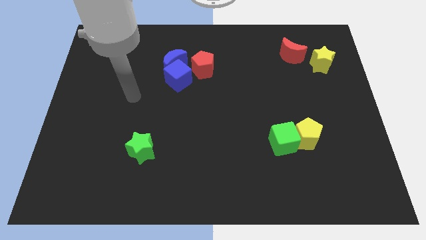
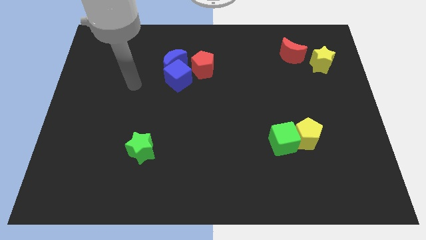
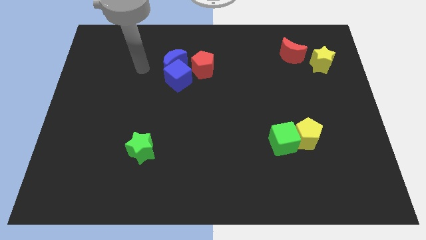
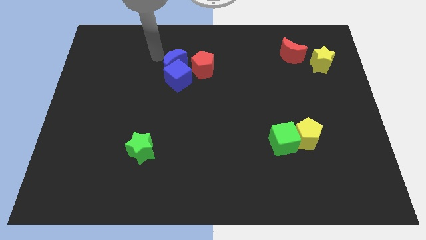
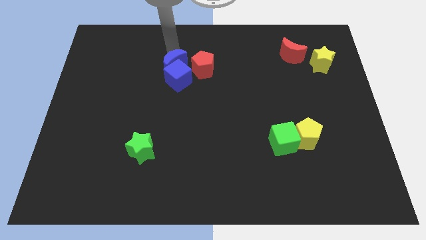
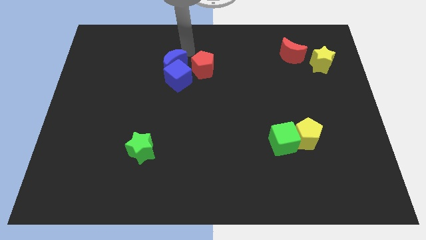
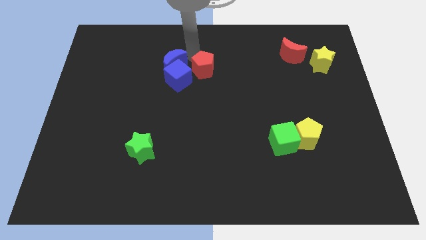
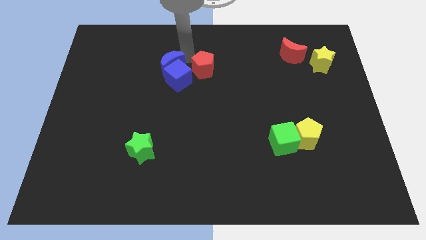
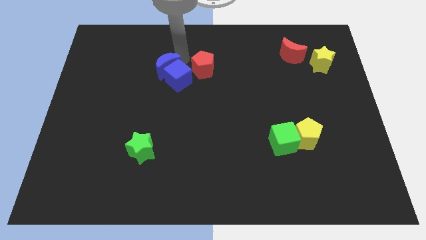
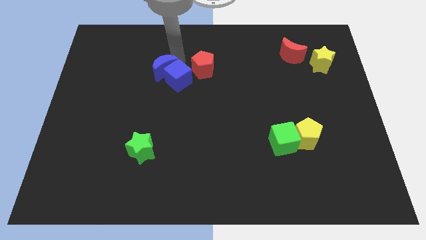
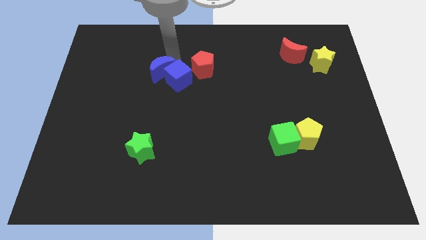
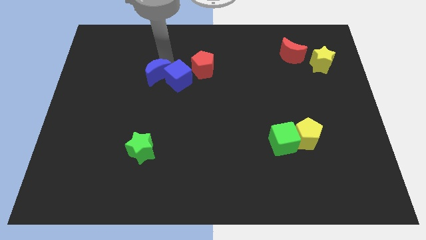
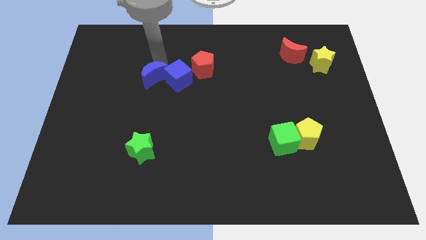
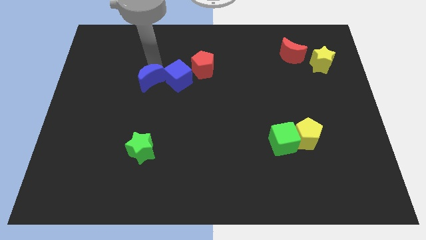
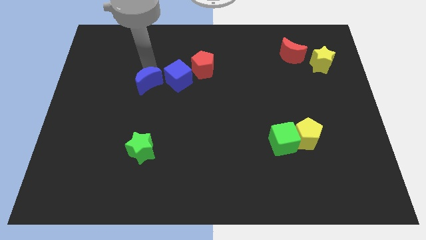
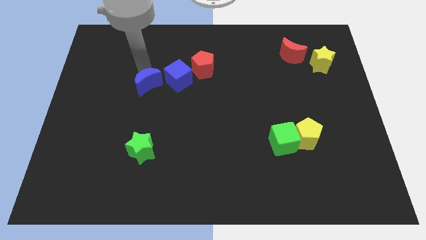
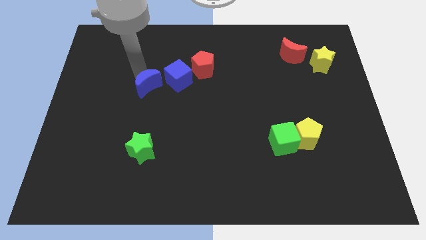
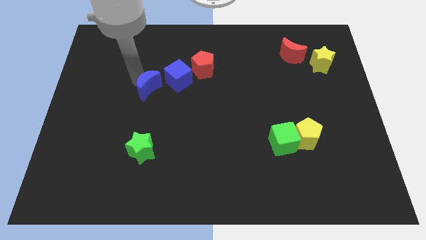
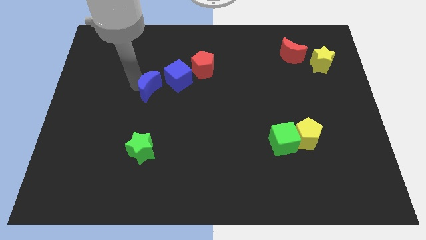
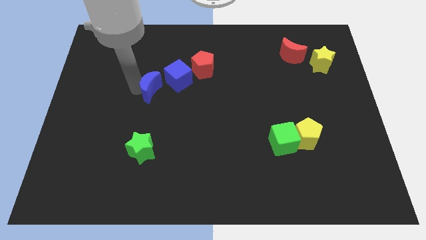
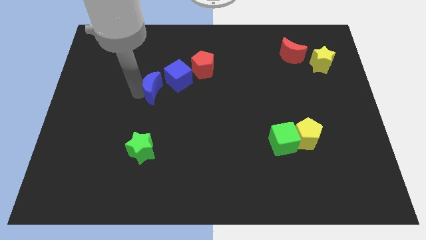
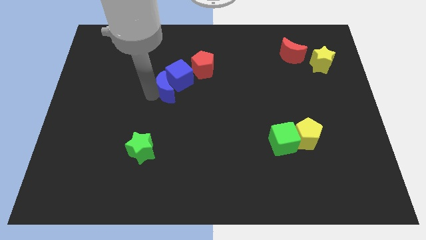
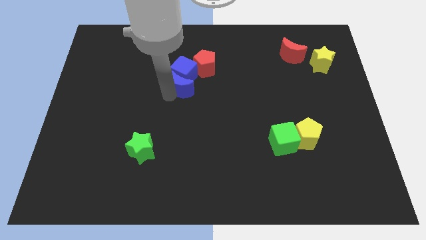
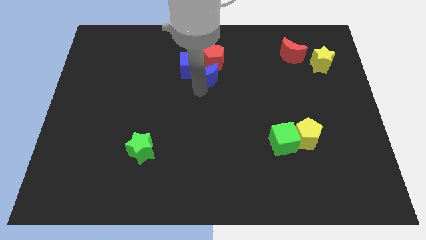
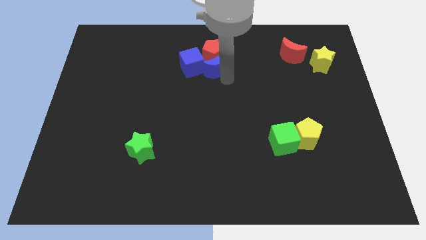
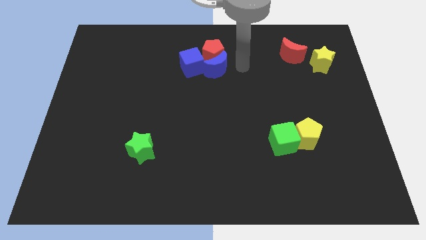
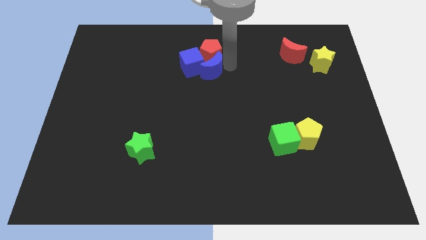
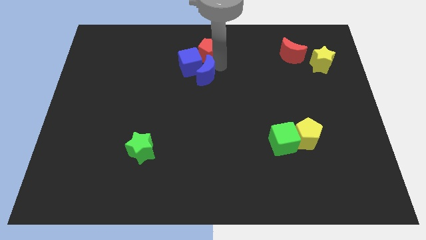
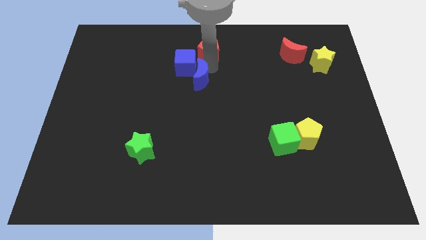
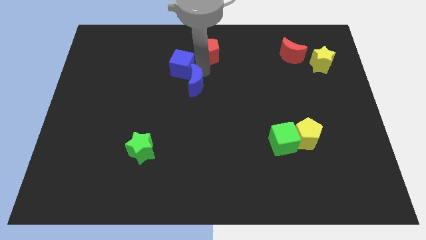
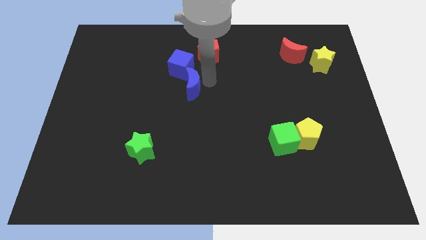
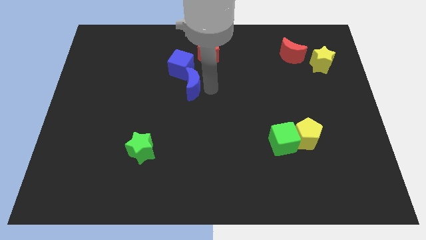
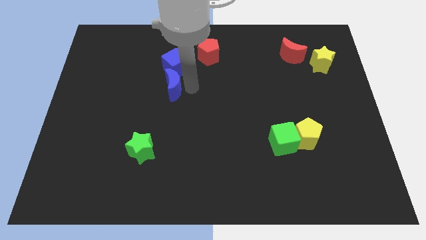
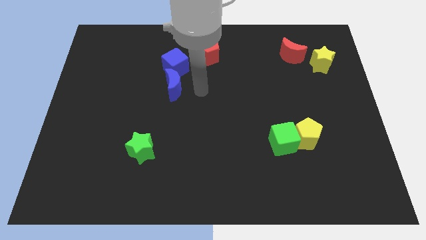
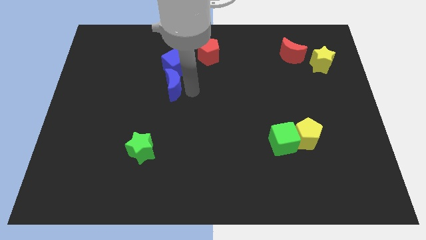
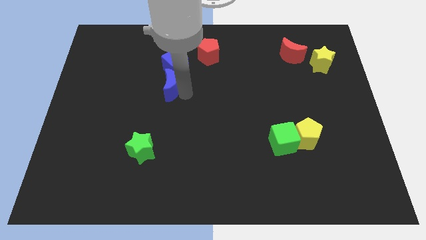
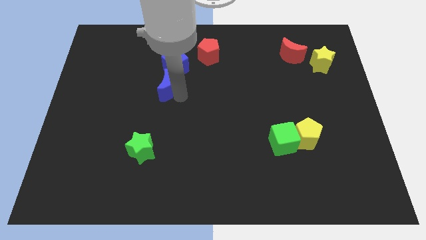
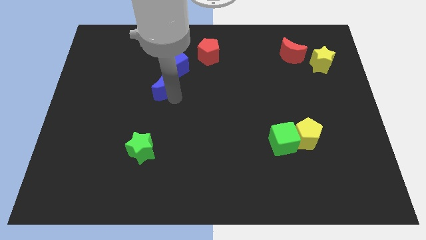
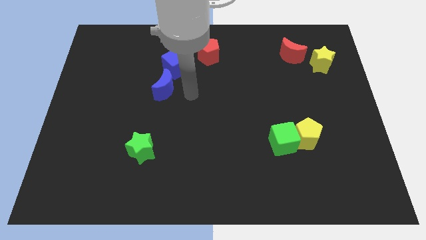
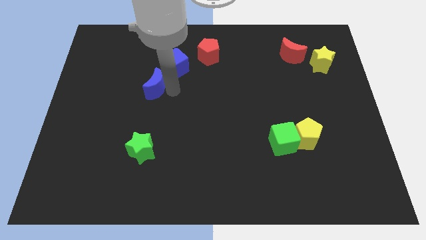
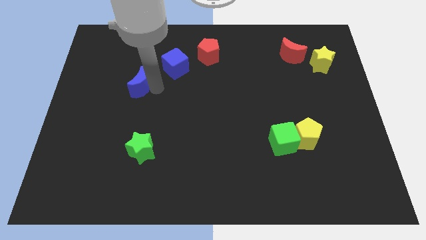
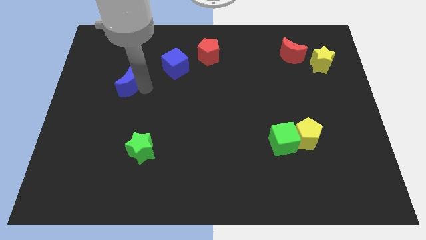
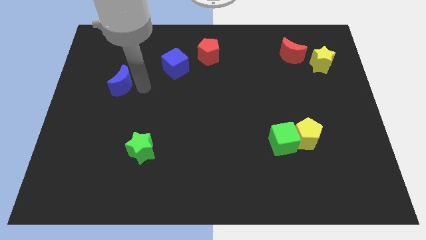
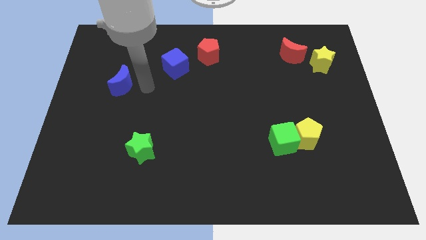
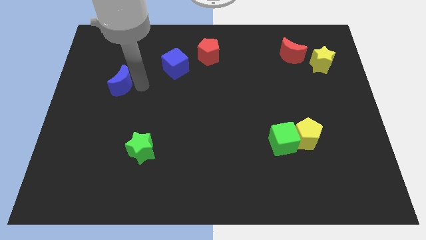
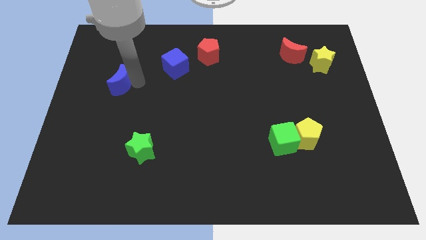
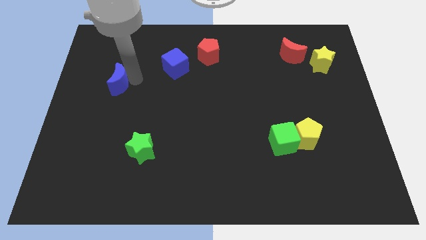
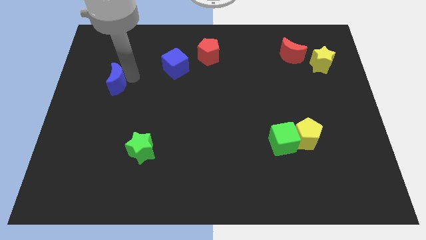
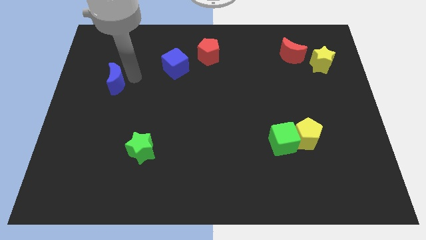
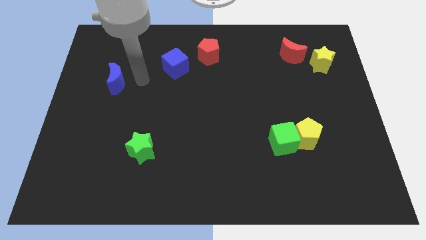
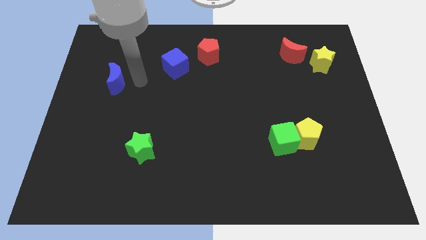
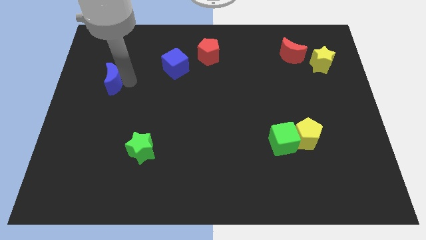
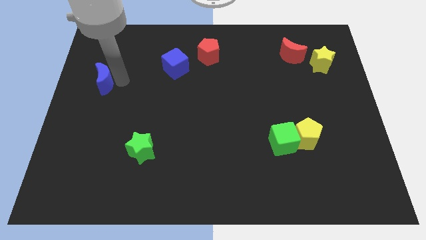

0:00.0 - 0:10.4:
put the blue moon to the left side

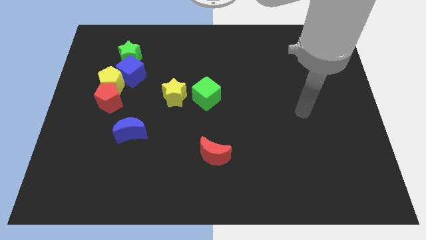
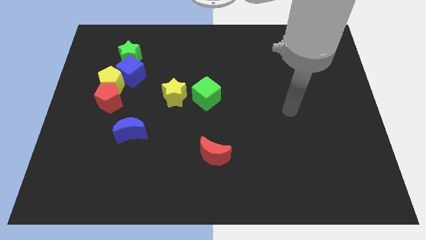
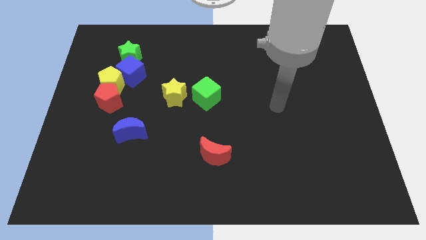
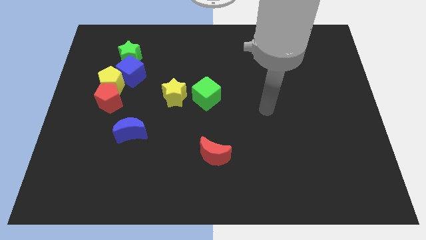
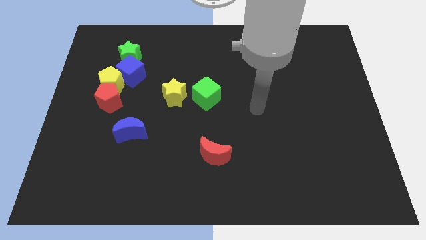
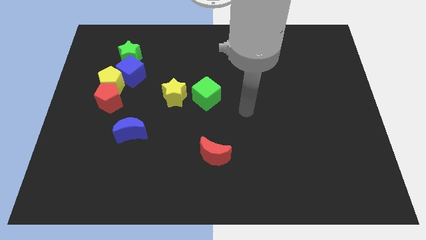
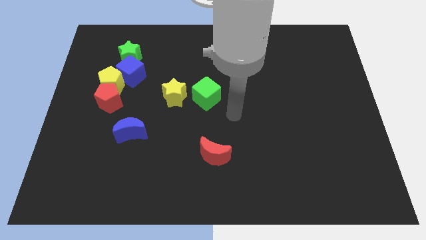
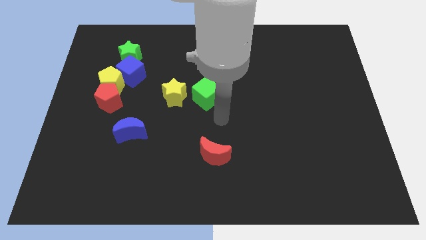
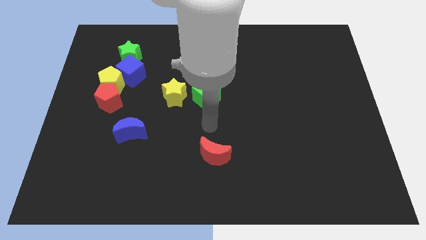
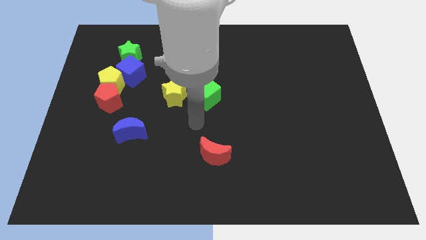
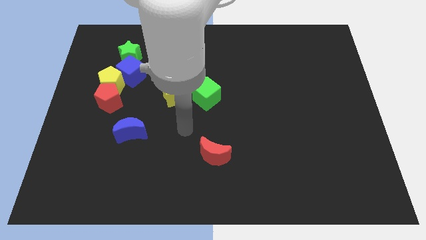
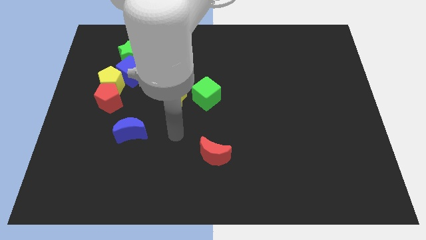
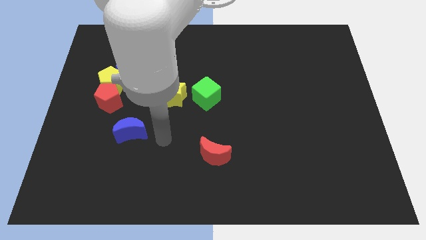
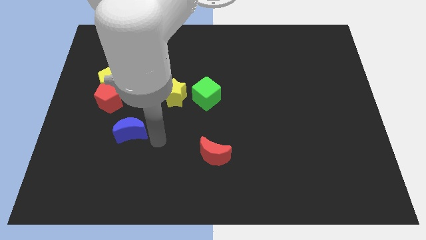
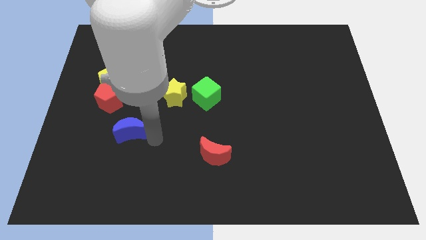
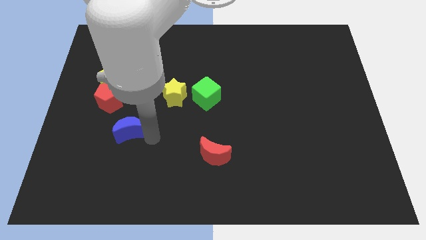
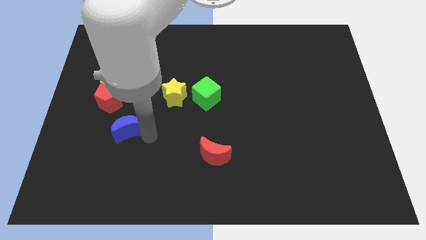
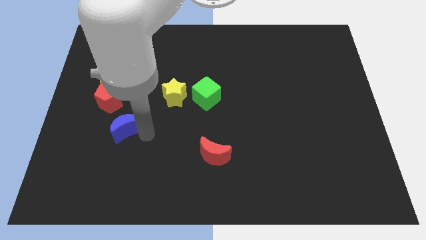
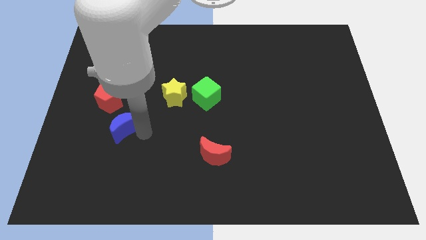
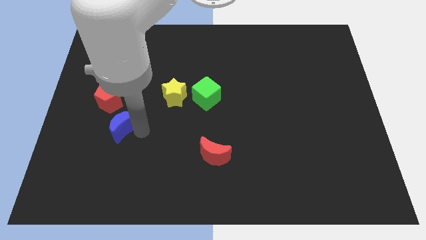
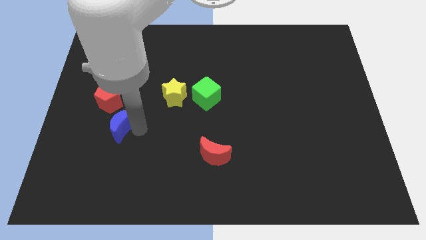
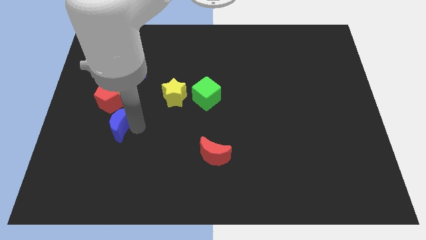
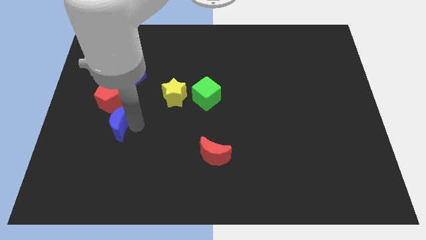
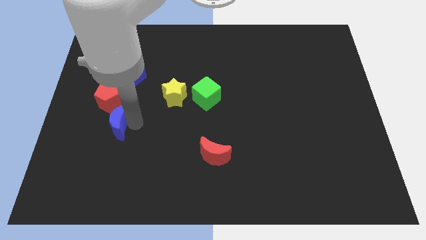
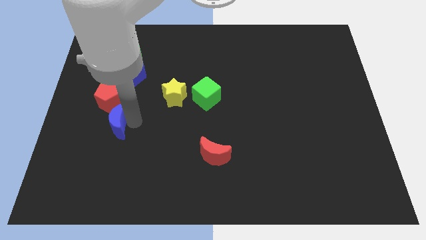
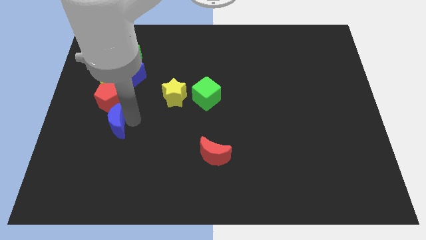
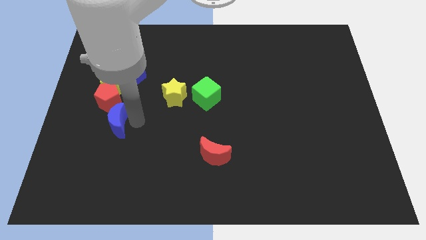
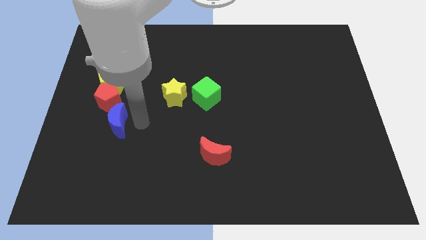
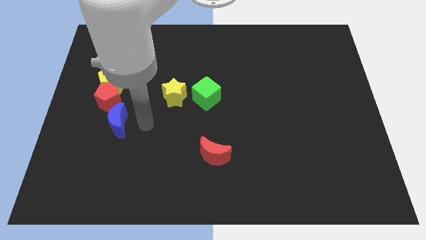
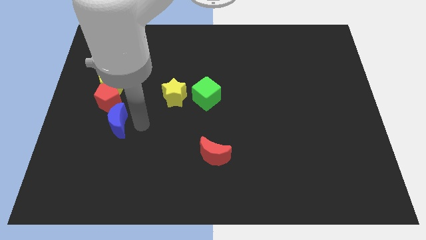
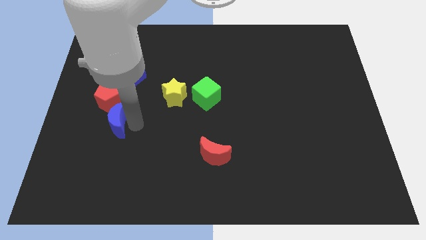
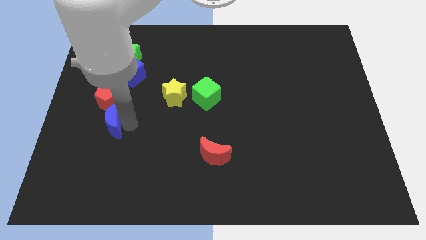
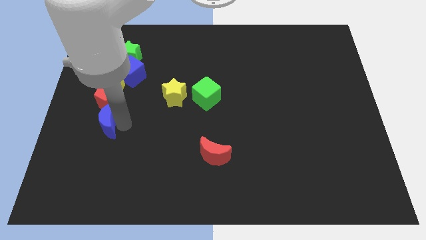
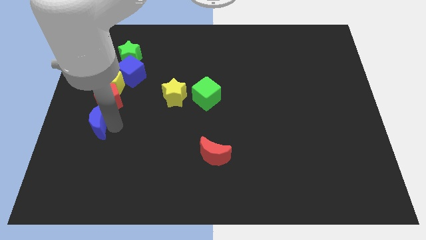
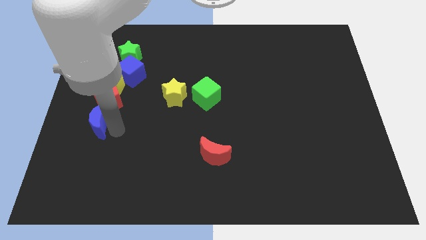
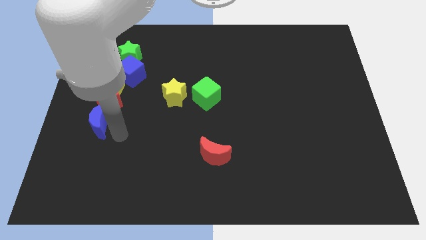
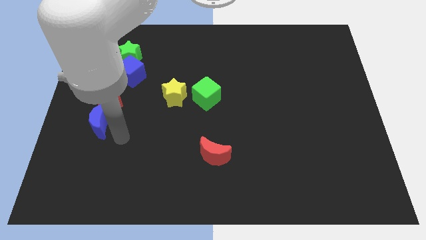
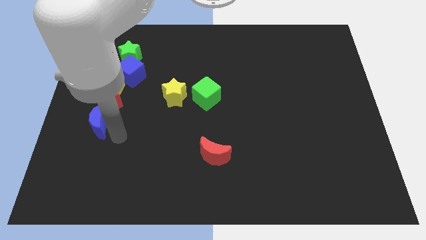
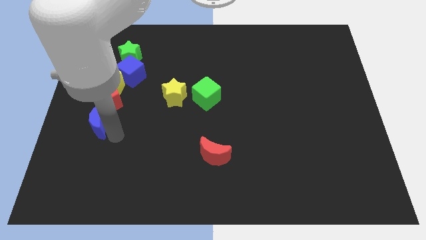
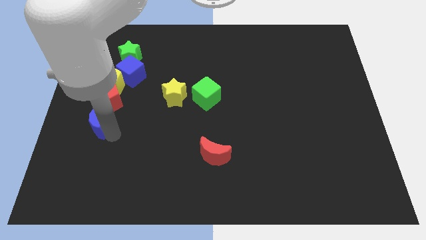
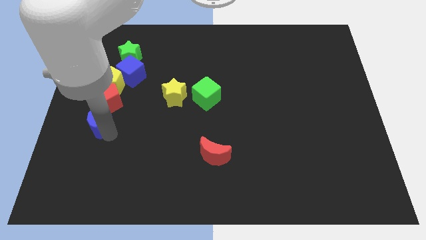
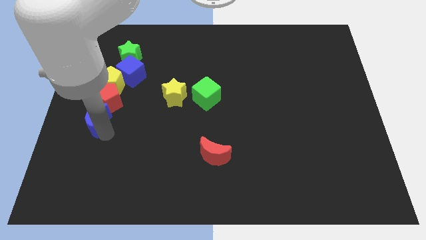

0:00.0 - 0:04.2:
move the blue moon to the center left
